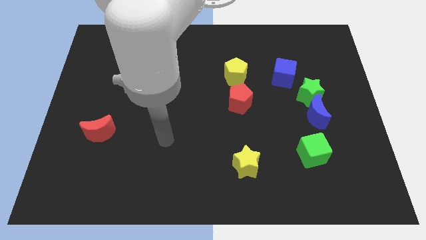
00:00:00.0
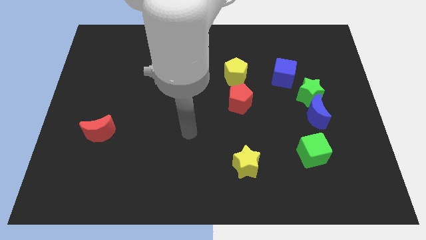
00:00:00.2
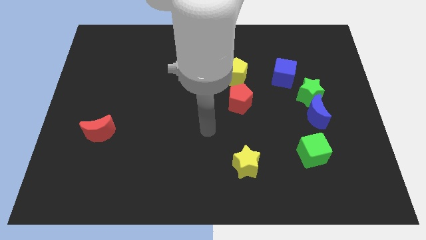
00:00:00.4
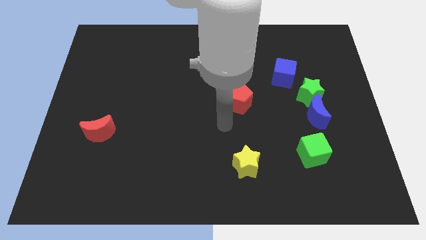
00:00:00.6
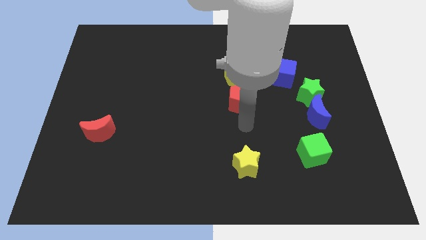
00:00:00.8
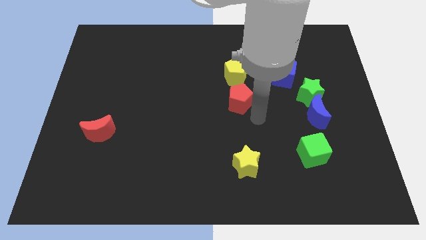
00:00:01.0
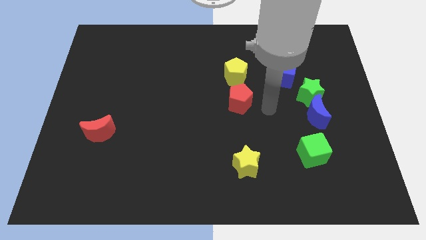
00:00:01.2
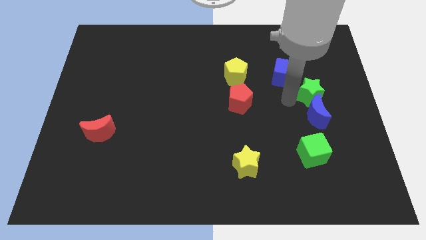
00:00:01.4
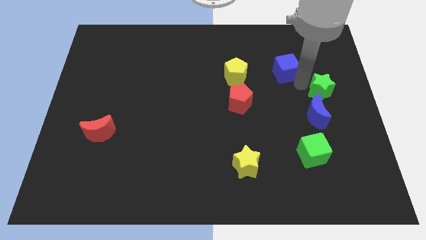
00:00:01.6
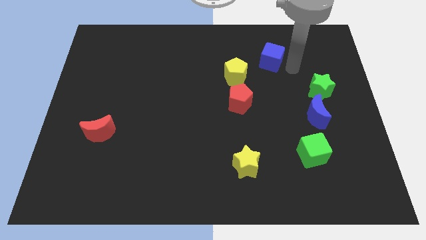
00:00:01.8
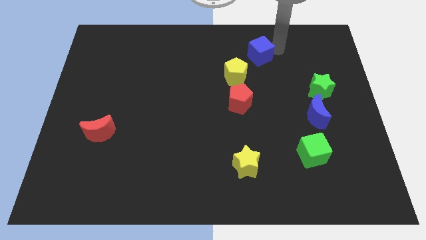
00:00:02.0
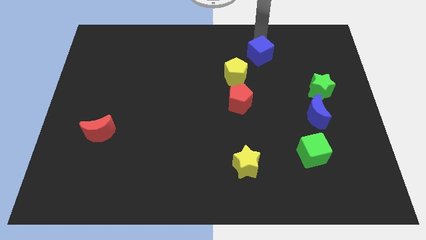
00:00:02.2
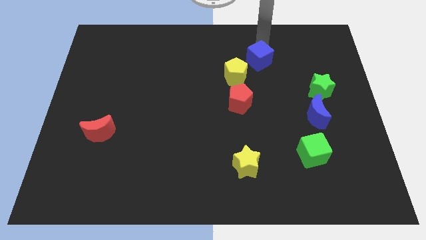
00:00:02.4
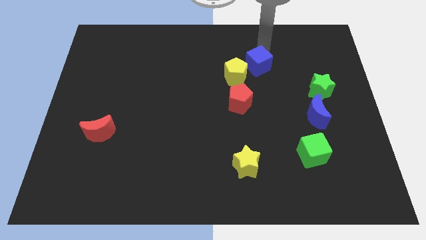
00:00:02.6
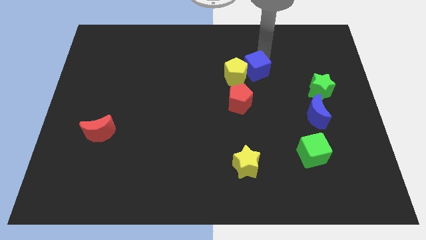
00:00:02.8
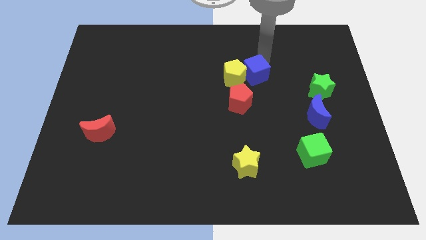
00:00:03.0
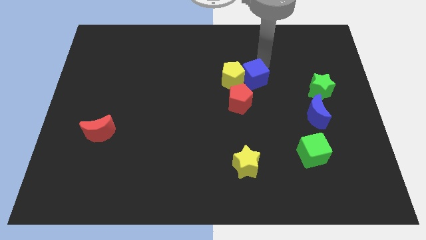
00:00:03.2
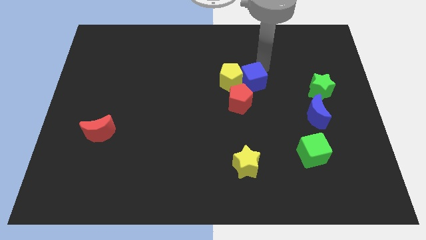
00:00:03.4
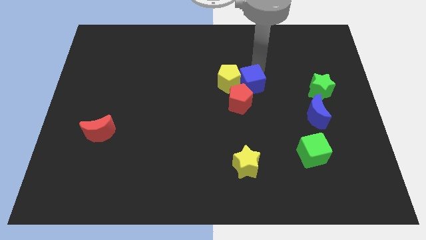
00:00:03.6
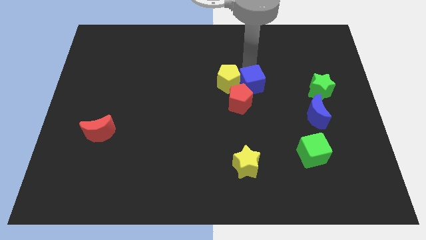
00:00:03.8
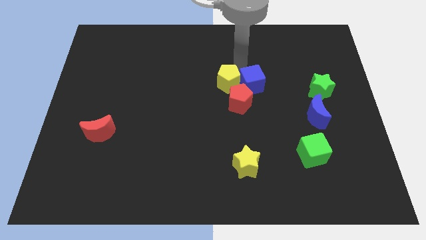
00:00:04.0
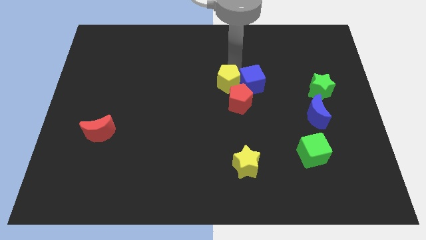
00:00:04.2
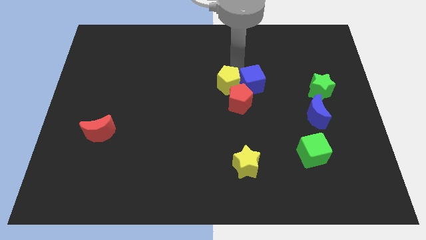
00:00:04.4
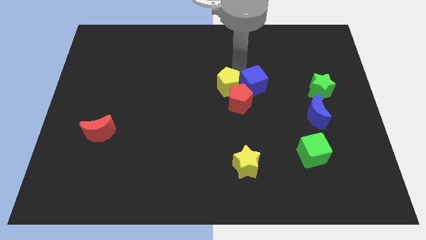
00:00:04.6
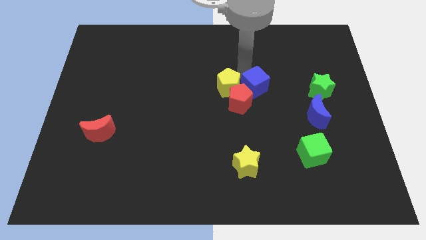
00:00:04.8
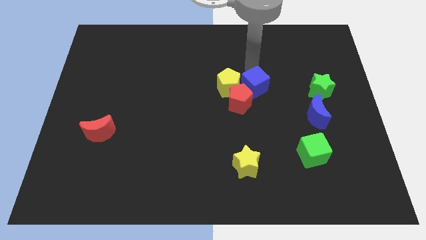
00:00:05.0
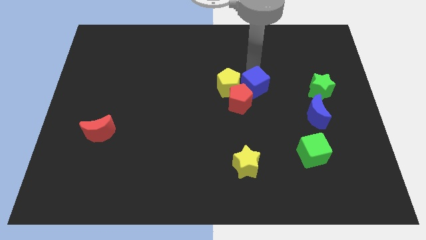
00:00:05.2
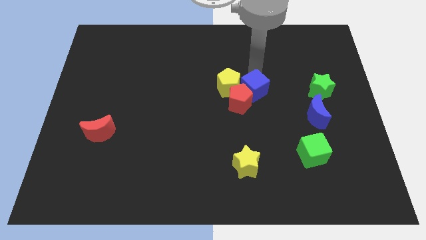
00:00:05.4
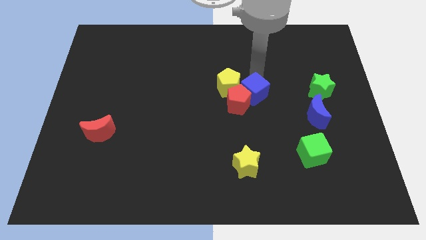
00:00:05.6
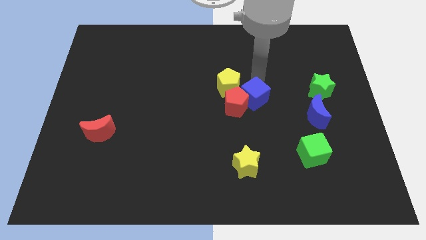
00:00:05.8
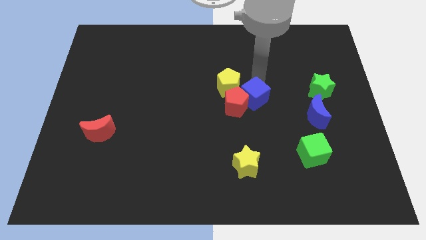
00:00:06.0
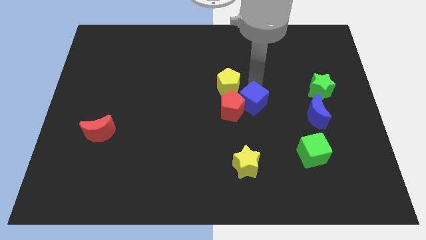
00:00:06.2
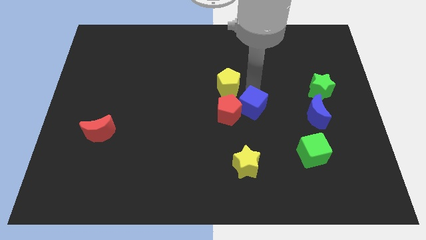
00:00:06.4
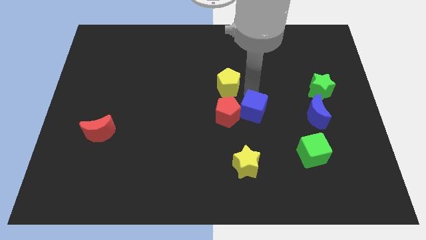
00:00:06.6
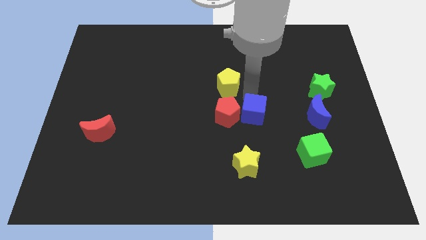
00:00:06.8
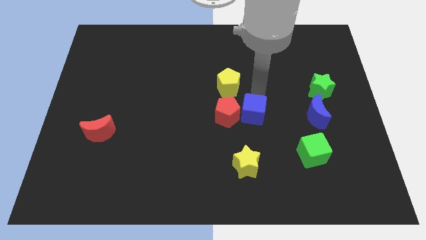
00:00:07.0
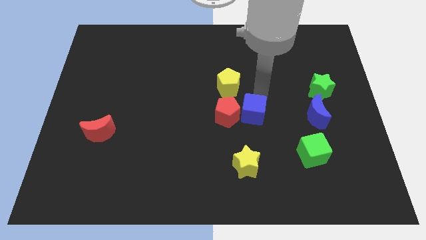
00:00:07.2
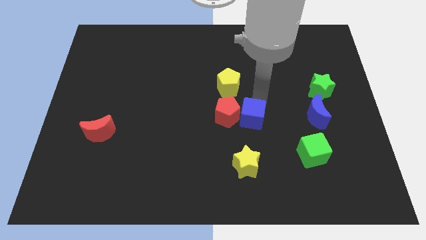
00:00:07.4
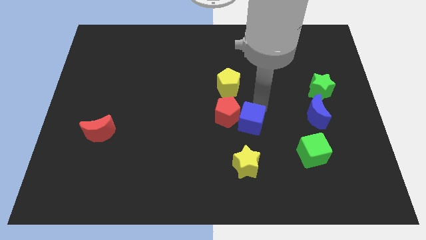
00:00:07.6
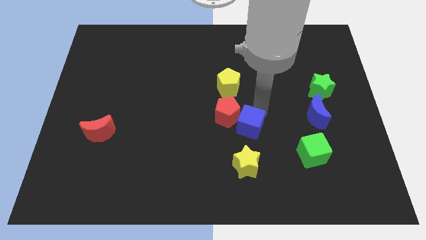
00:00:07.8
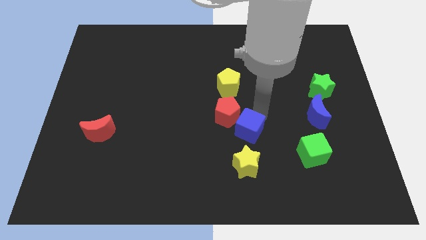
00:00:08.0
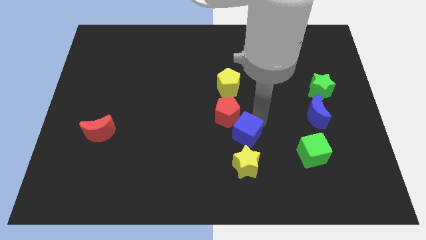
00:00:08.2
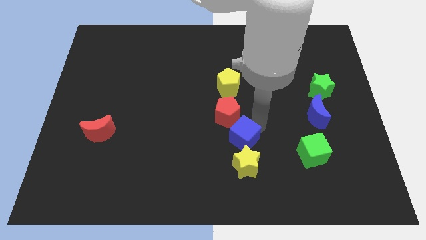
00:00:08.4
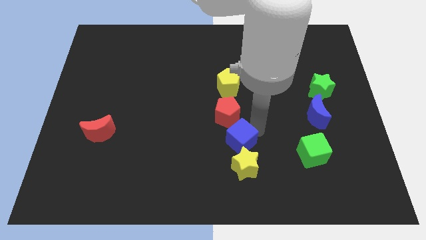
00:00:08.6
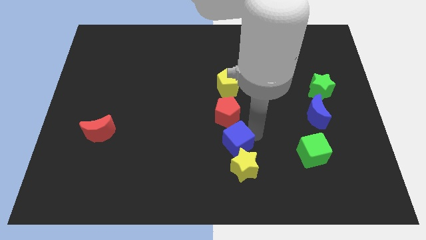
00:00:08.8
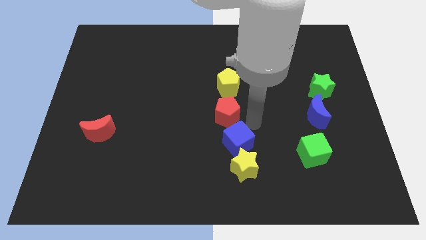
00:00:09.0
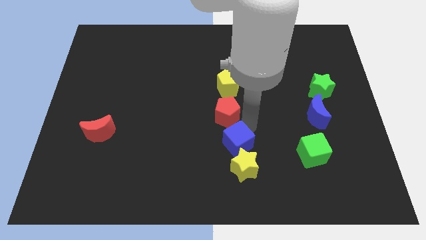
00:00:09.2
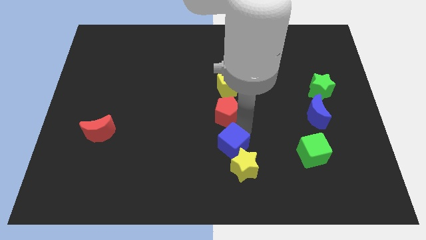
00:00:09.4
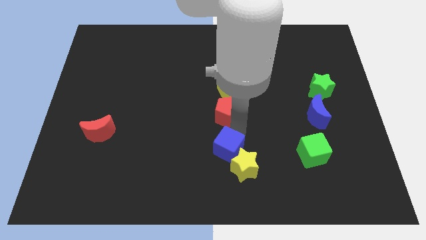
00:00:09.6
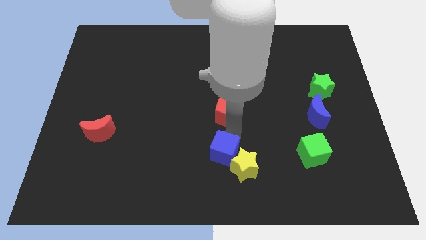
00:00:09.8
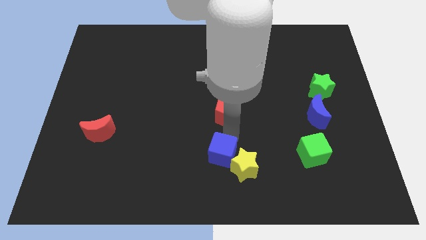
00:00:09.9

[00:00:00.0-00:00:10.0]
put the blue cube to the bottom side

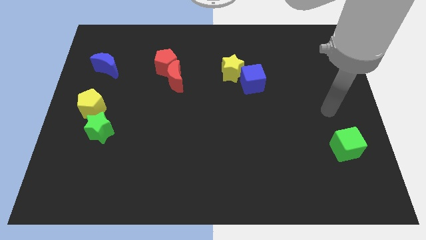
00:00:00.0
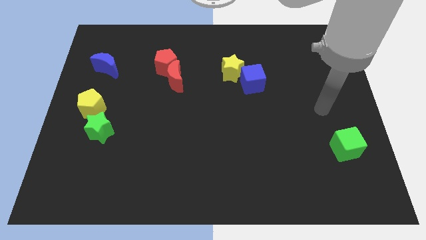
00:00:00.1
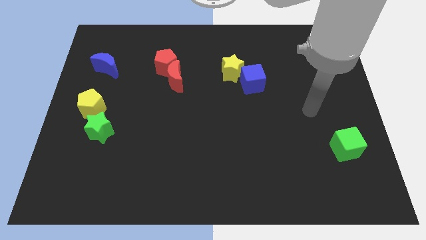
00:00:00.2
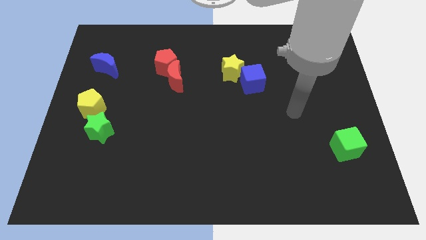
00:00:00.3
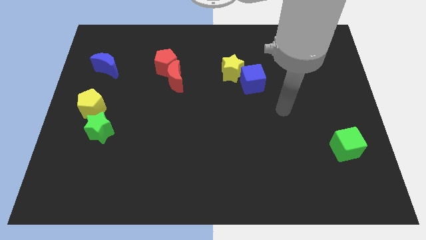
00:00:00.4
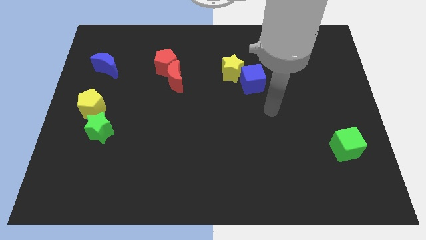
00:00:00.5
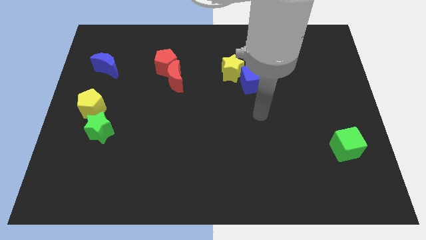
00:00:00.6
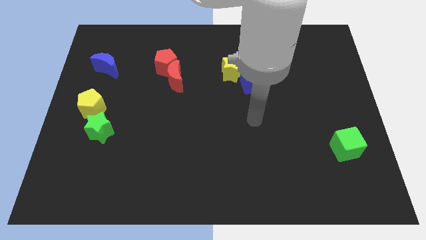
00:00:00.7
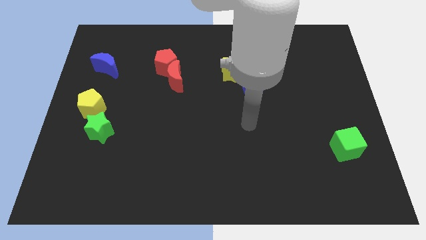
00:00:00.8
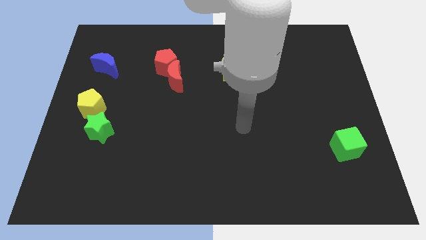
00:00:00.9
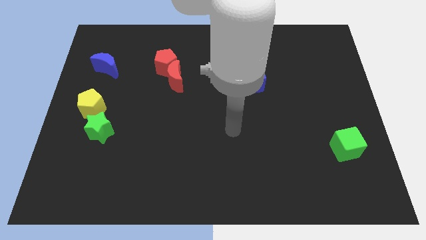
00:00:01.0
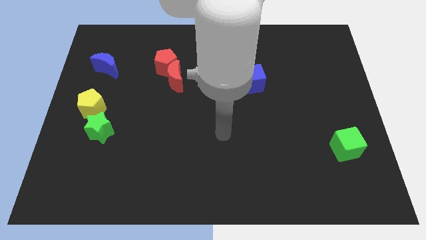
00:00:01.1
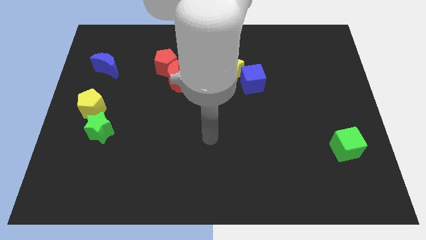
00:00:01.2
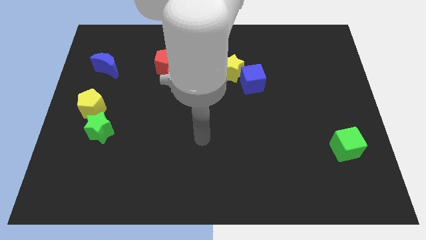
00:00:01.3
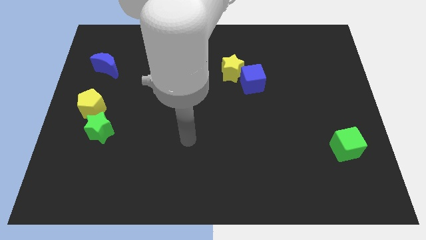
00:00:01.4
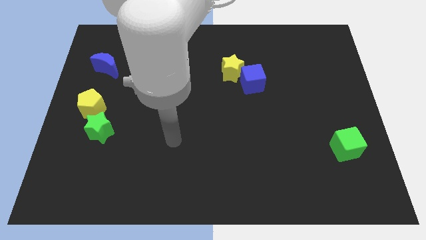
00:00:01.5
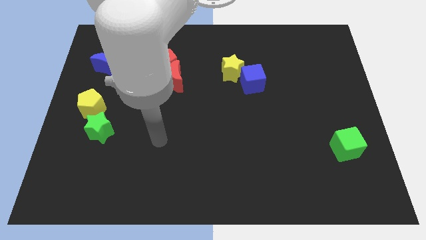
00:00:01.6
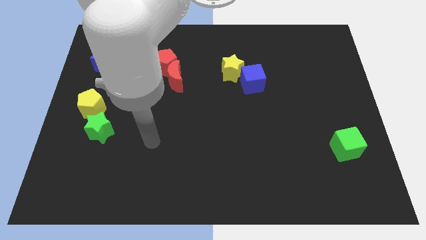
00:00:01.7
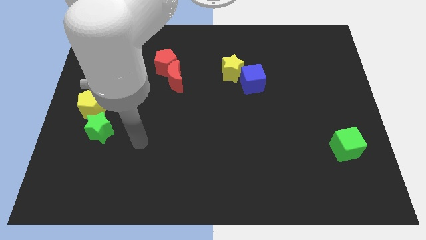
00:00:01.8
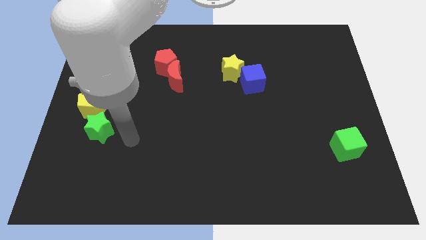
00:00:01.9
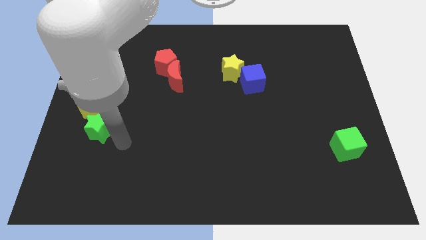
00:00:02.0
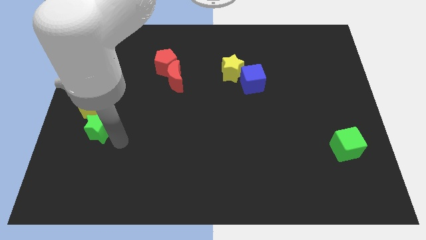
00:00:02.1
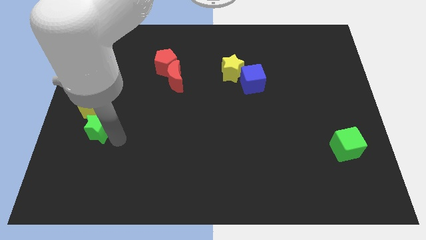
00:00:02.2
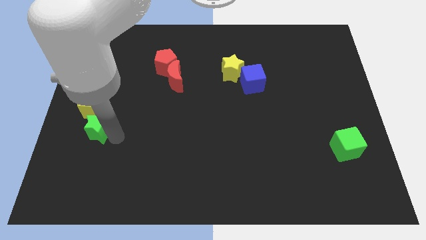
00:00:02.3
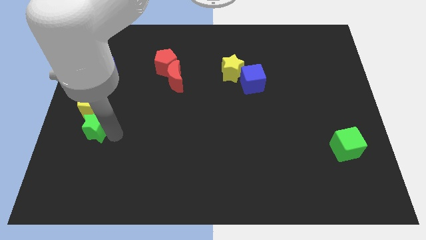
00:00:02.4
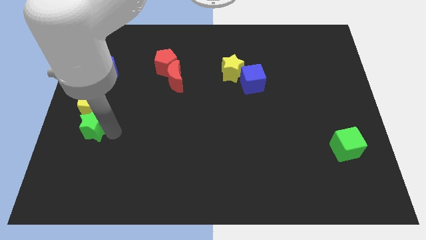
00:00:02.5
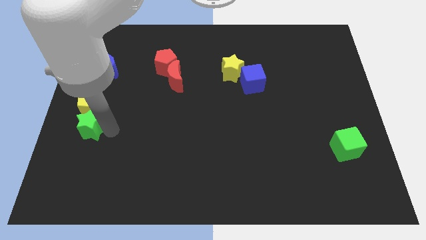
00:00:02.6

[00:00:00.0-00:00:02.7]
push the green star to the left side of the board
